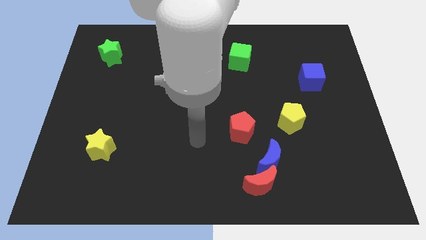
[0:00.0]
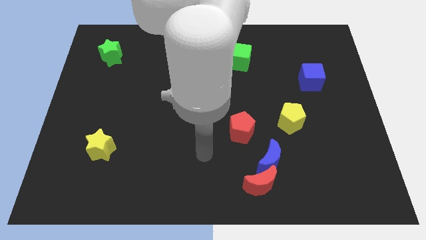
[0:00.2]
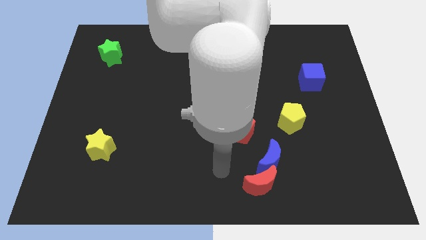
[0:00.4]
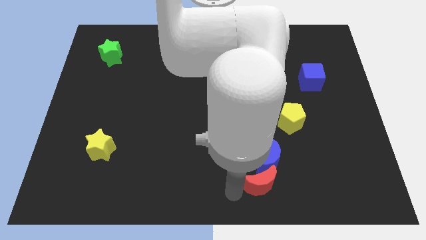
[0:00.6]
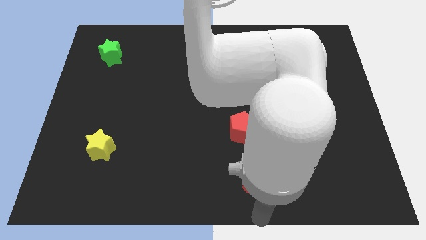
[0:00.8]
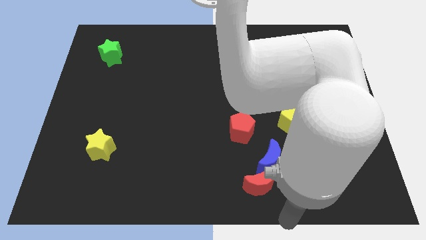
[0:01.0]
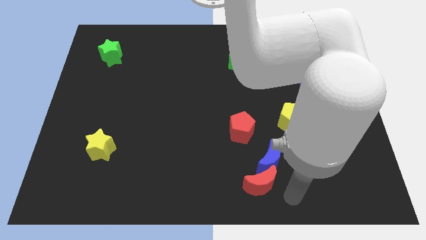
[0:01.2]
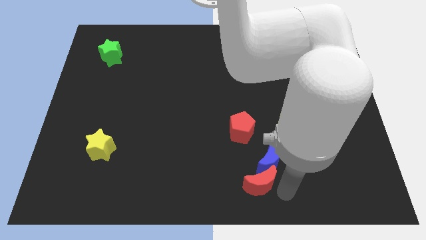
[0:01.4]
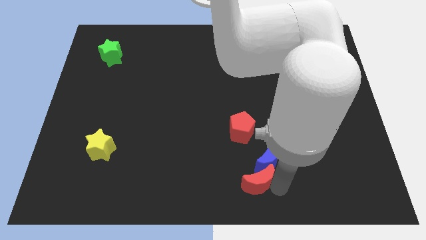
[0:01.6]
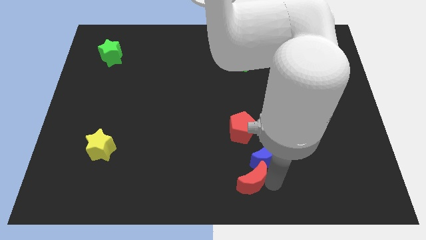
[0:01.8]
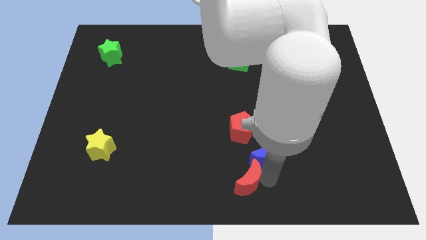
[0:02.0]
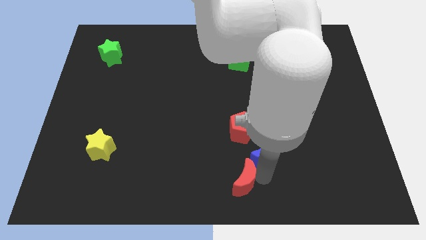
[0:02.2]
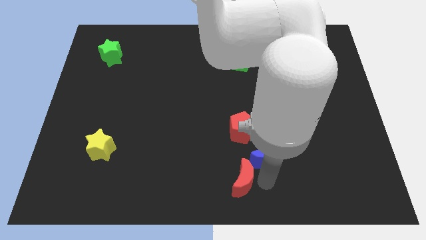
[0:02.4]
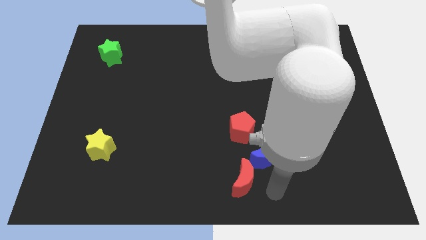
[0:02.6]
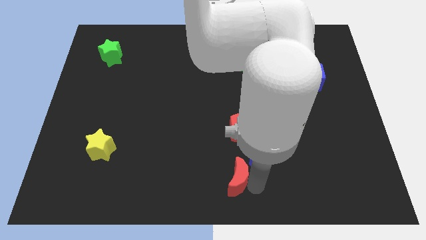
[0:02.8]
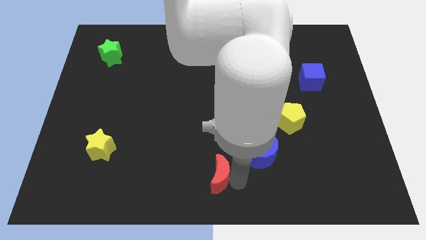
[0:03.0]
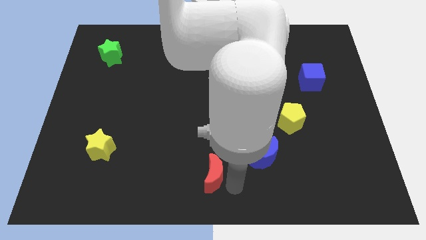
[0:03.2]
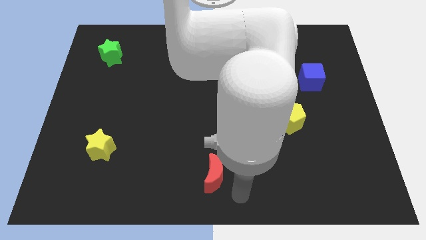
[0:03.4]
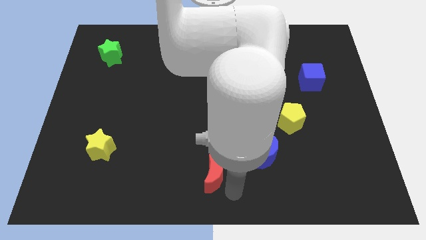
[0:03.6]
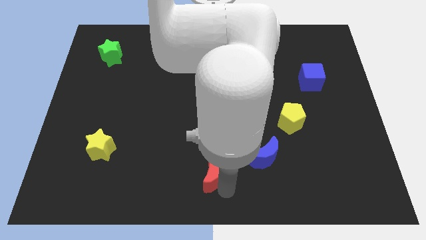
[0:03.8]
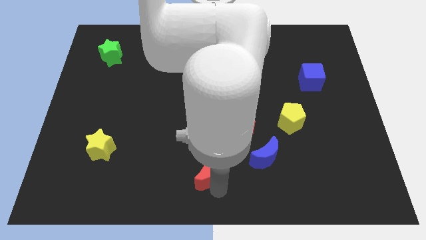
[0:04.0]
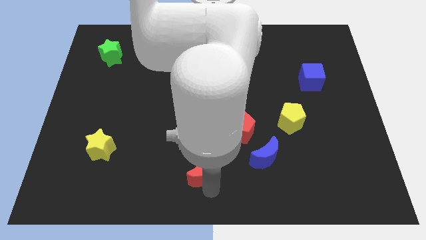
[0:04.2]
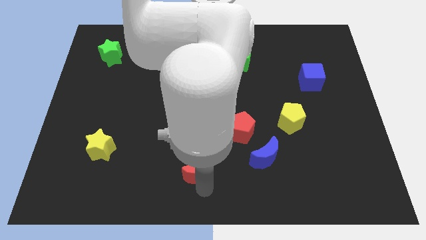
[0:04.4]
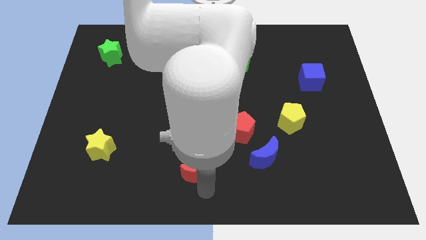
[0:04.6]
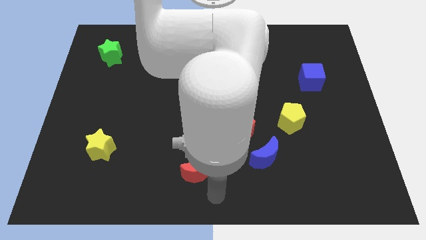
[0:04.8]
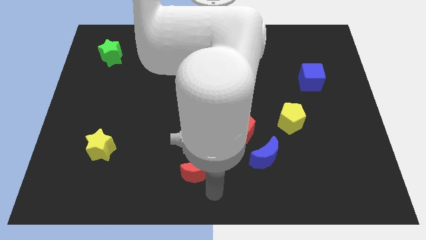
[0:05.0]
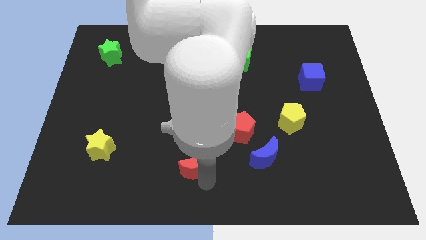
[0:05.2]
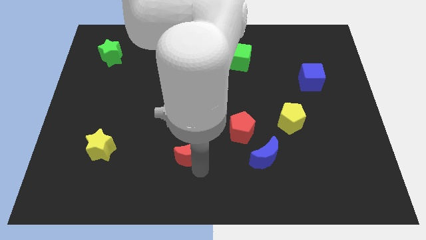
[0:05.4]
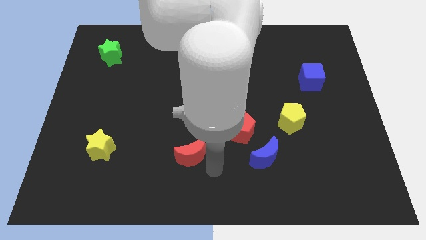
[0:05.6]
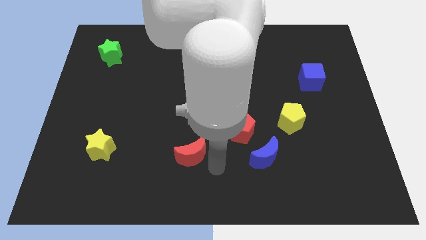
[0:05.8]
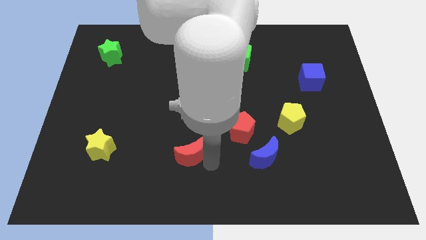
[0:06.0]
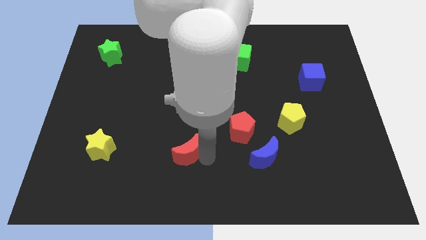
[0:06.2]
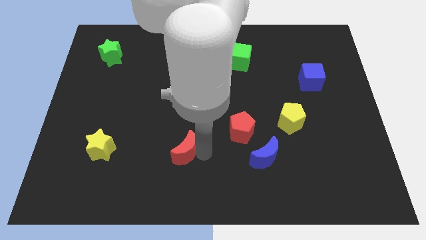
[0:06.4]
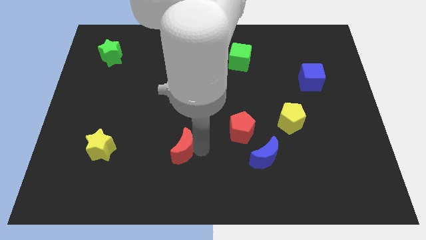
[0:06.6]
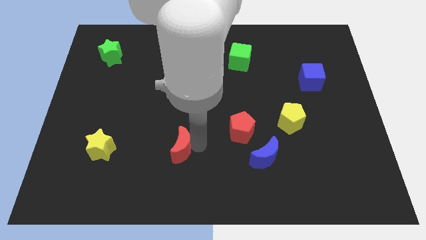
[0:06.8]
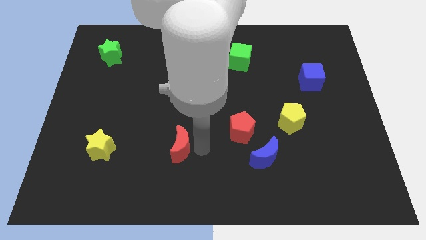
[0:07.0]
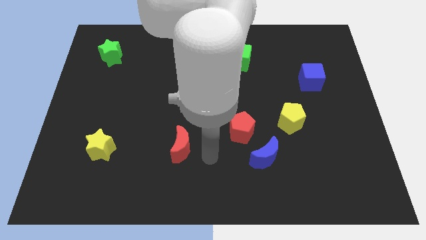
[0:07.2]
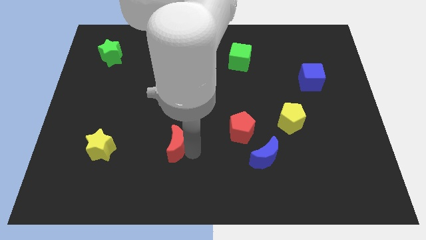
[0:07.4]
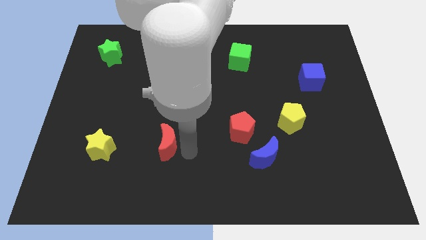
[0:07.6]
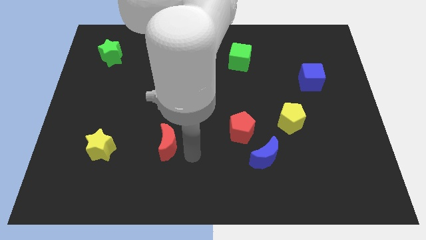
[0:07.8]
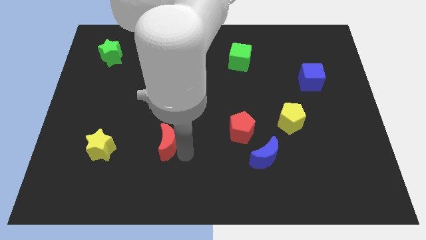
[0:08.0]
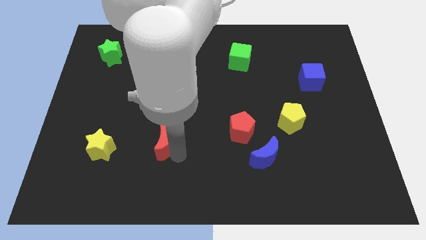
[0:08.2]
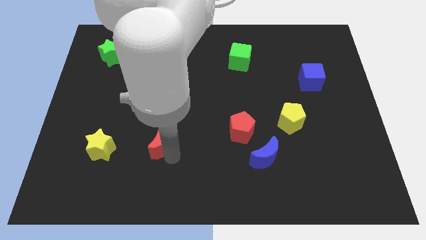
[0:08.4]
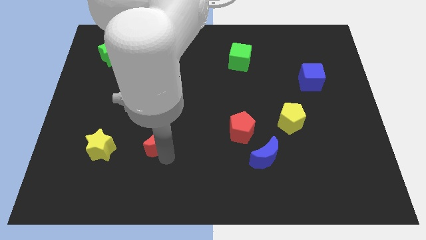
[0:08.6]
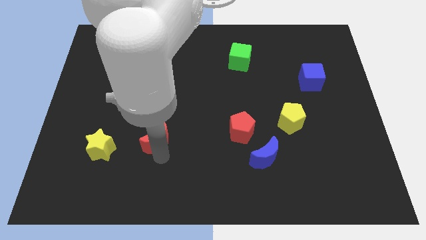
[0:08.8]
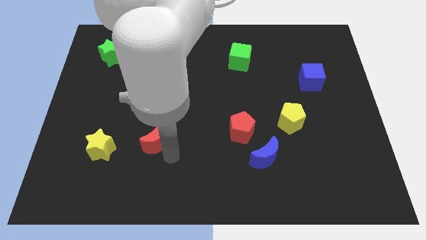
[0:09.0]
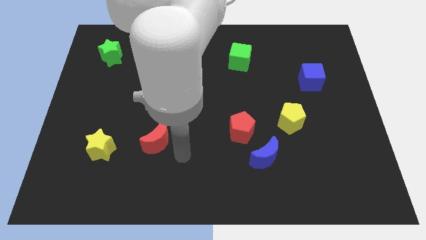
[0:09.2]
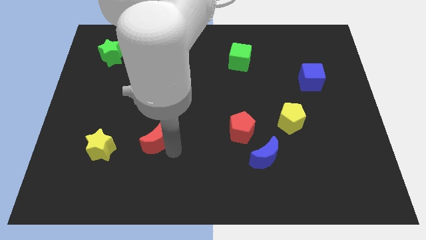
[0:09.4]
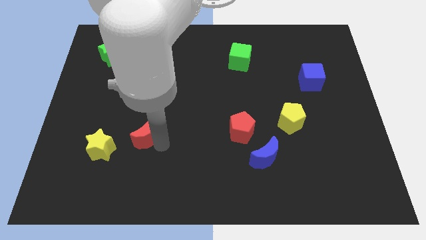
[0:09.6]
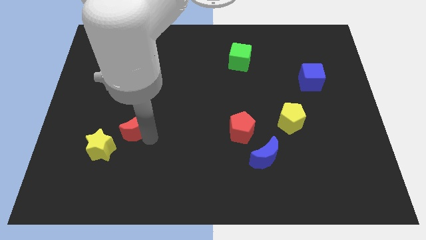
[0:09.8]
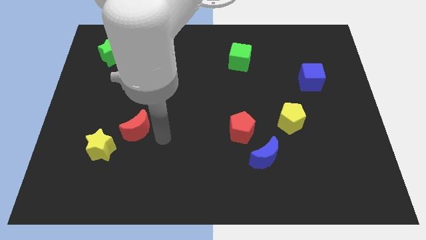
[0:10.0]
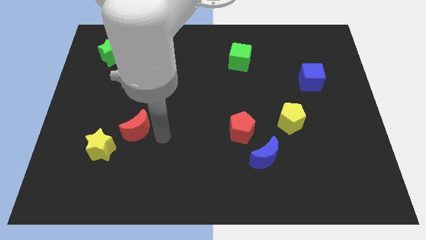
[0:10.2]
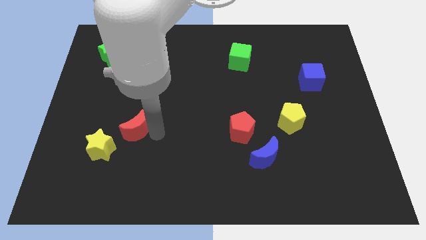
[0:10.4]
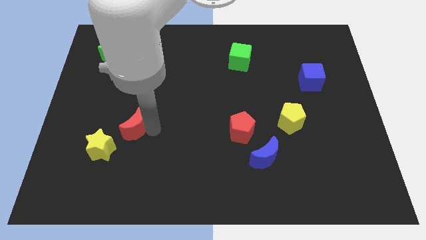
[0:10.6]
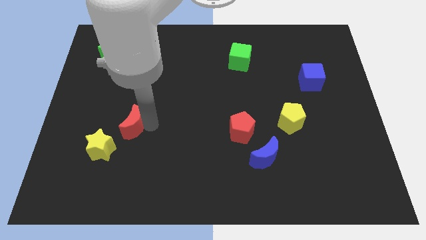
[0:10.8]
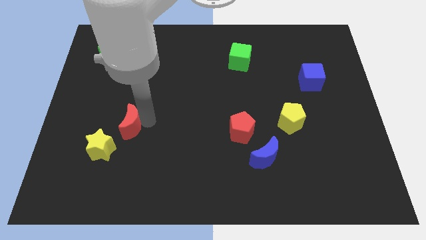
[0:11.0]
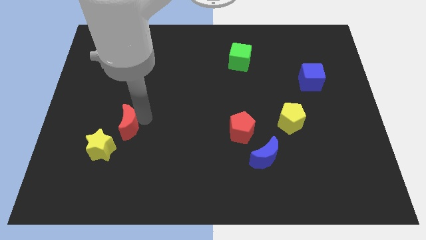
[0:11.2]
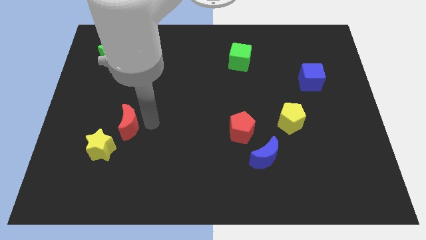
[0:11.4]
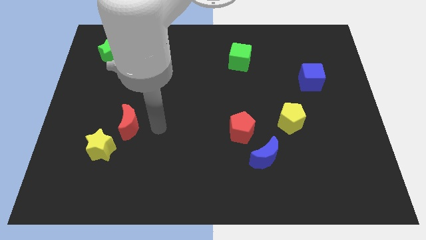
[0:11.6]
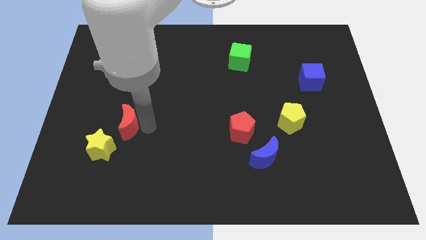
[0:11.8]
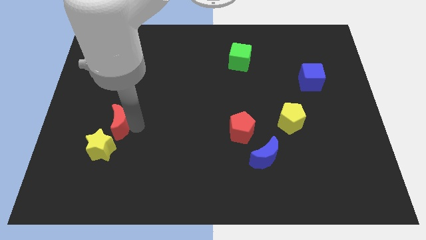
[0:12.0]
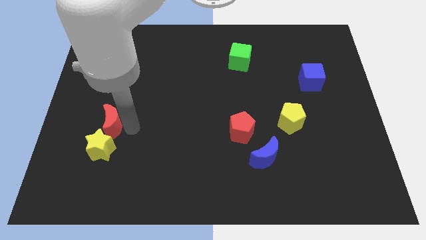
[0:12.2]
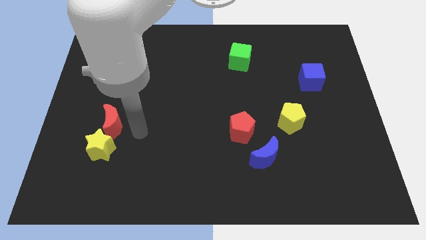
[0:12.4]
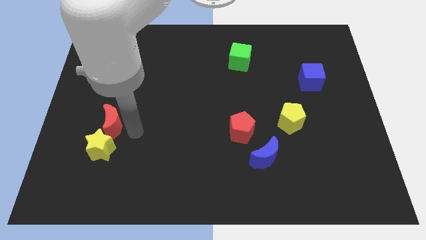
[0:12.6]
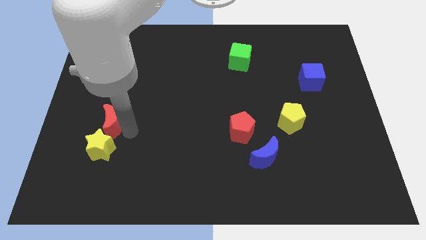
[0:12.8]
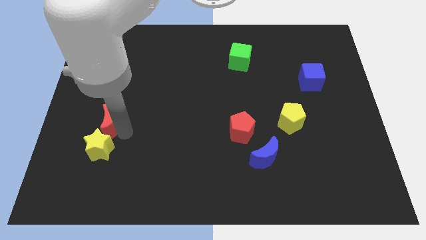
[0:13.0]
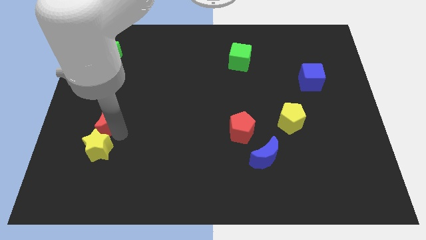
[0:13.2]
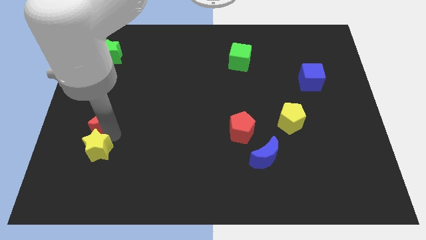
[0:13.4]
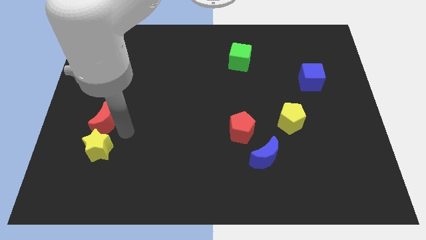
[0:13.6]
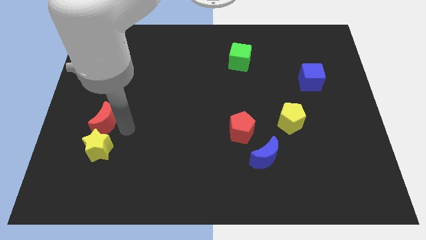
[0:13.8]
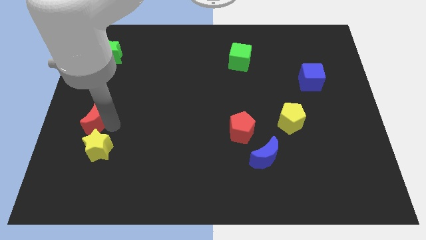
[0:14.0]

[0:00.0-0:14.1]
put the red moon to the center left
